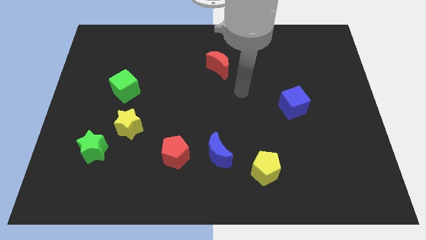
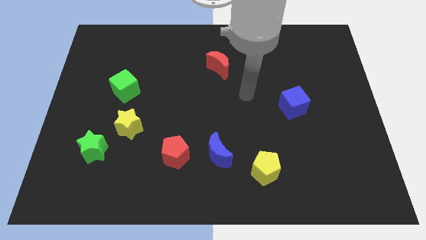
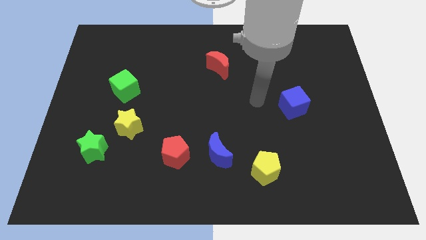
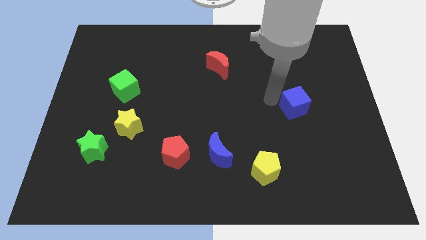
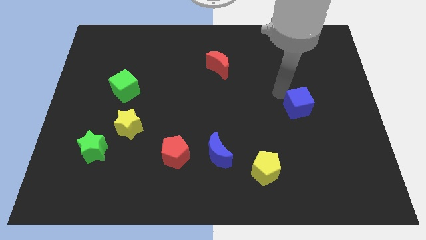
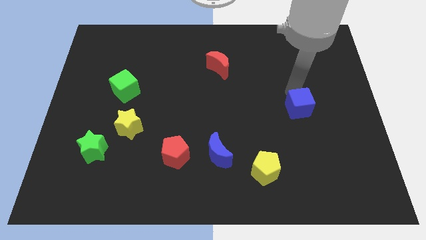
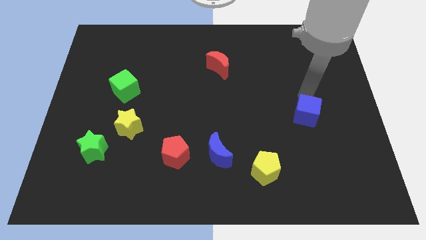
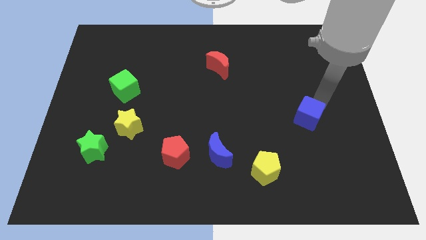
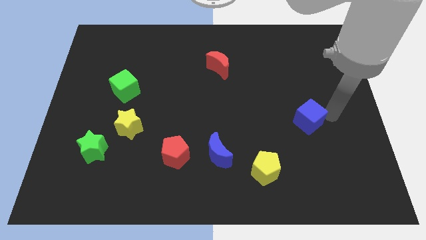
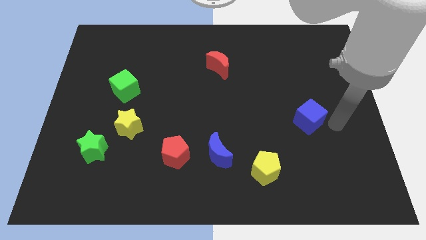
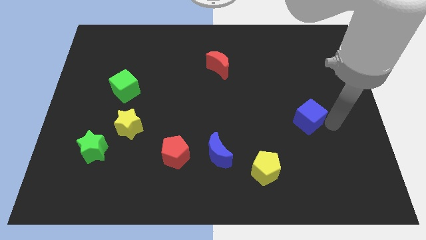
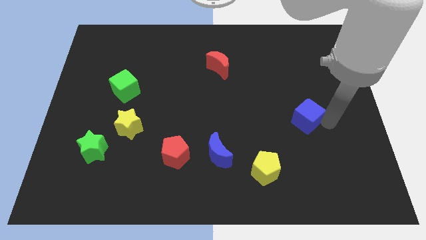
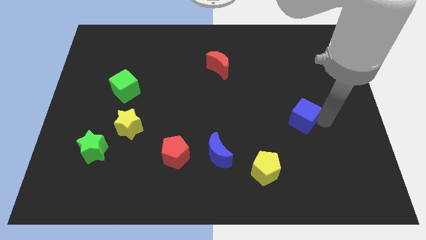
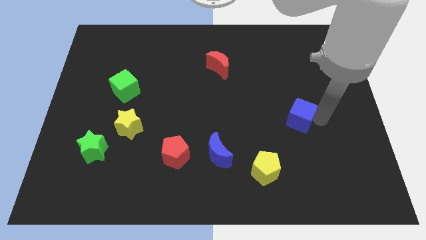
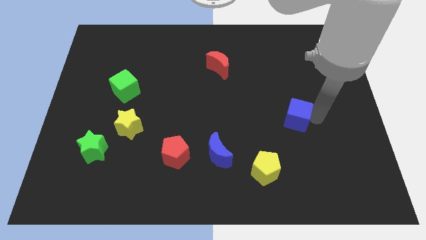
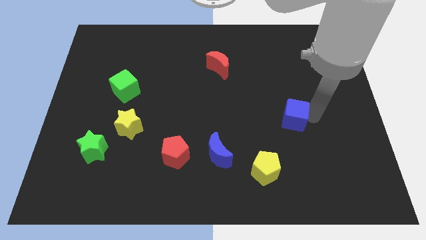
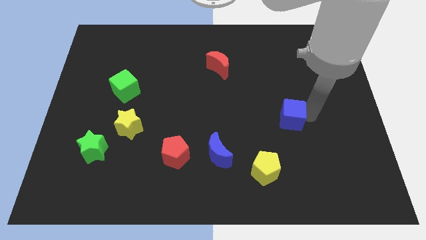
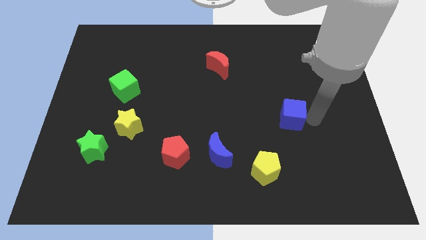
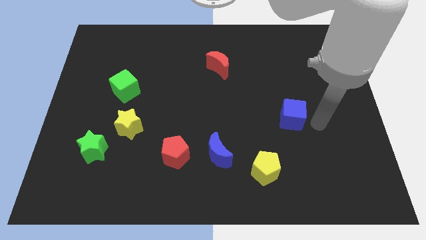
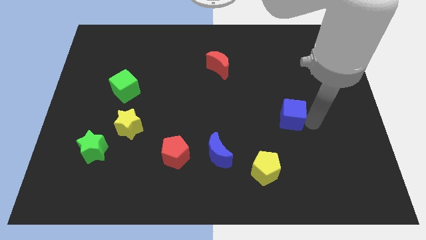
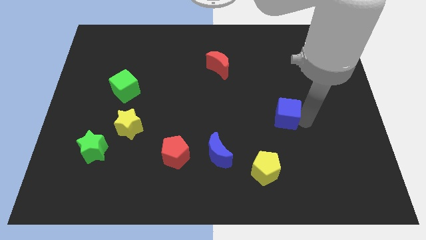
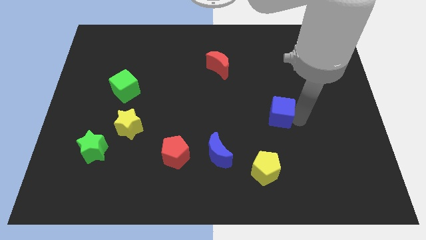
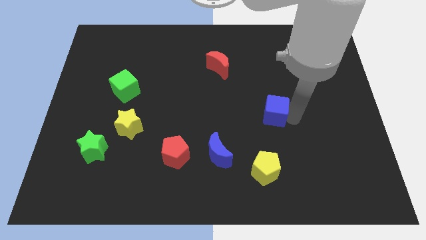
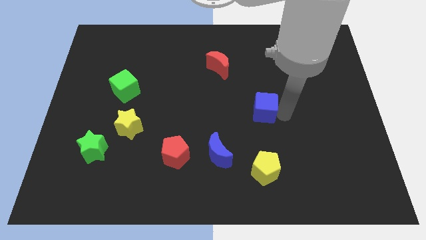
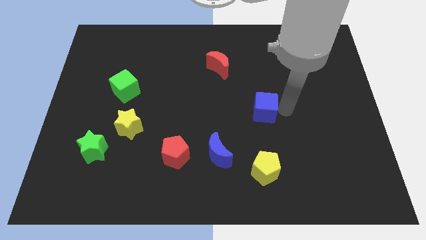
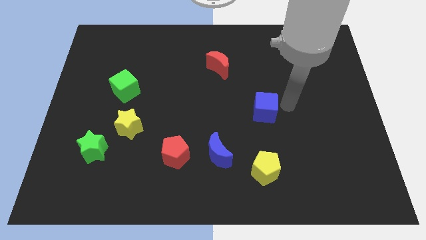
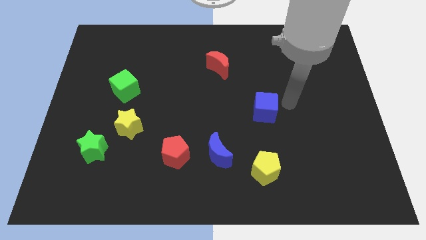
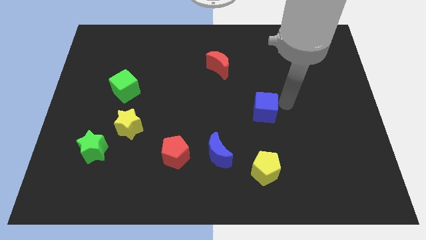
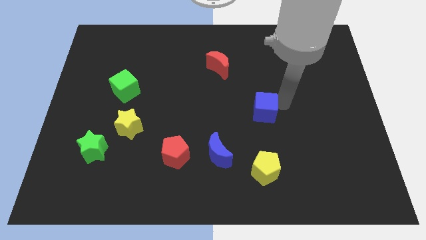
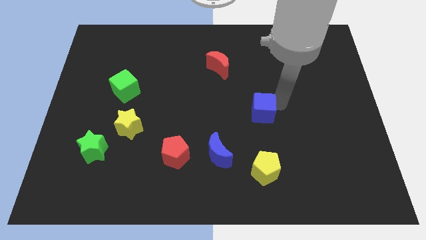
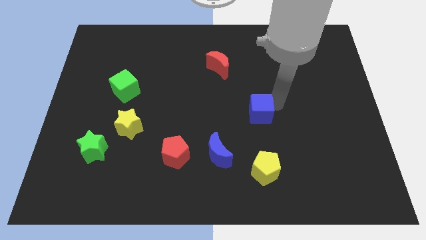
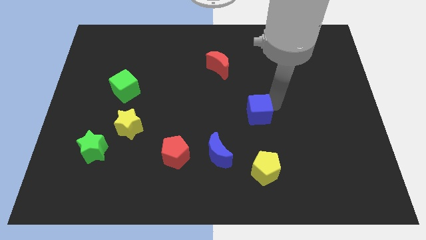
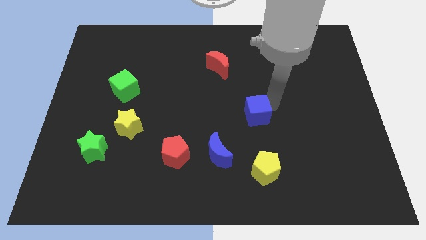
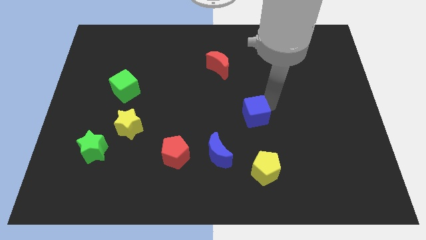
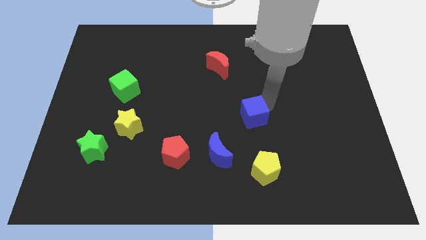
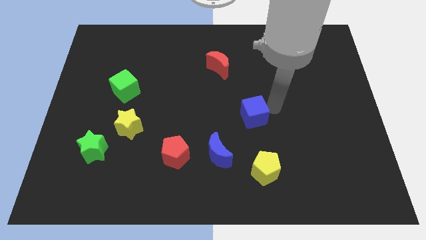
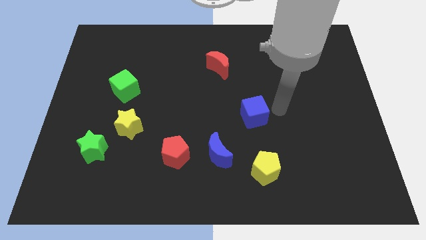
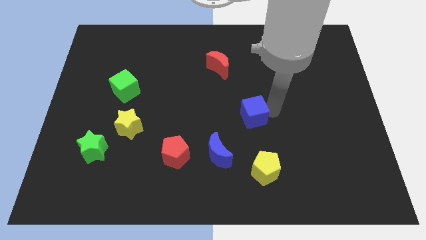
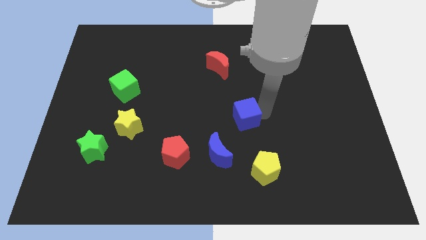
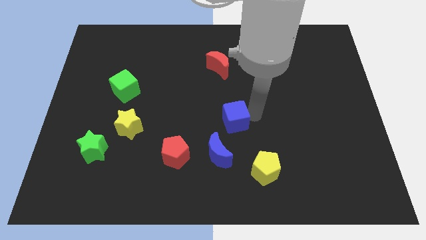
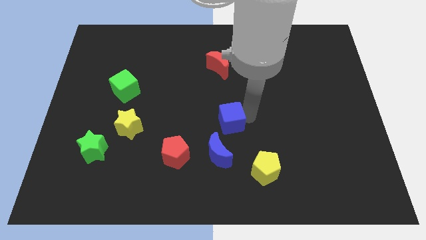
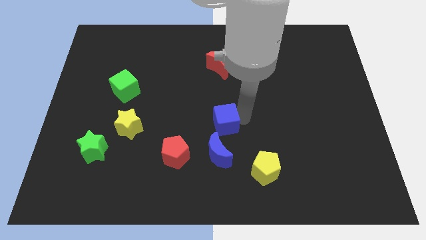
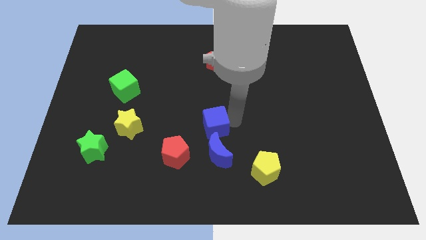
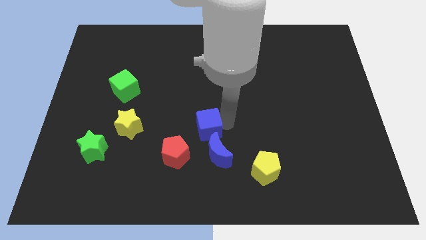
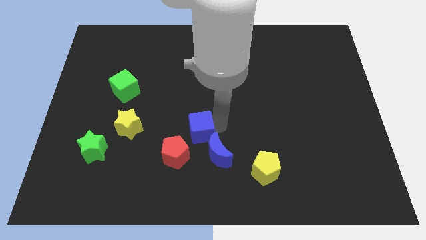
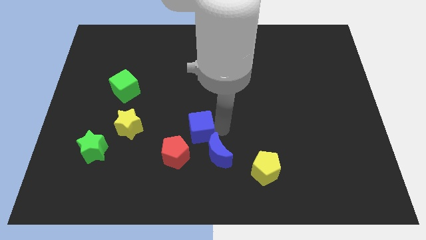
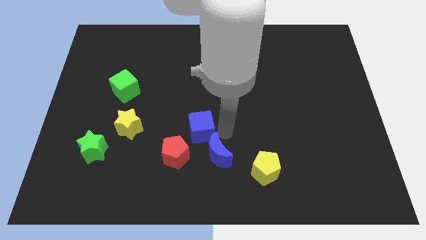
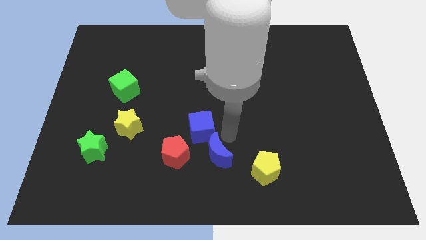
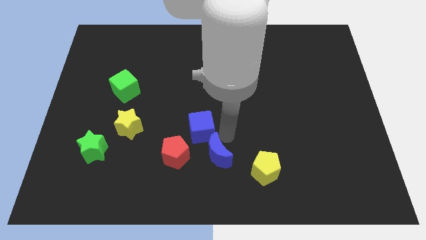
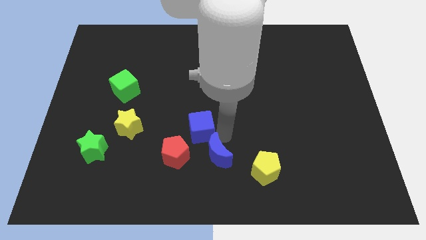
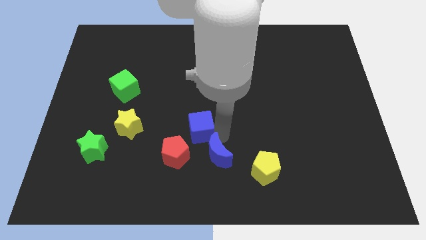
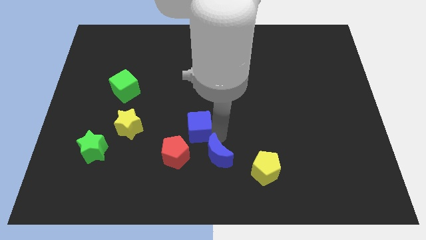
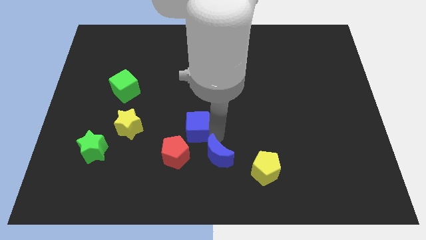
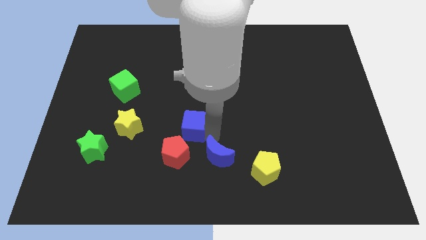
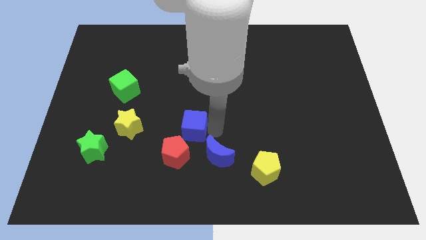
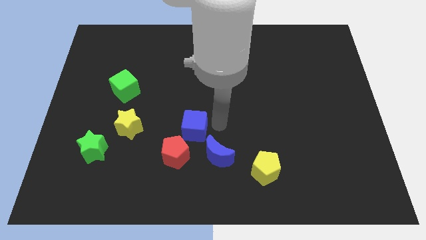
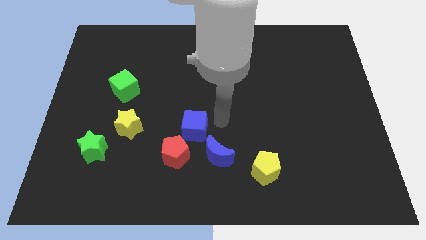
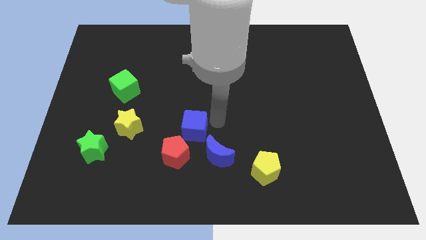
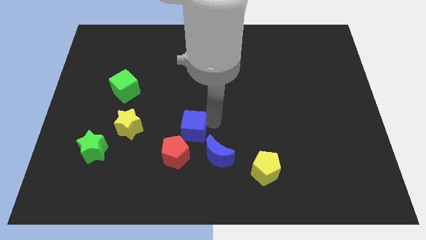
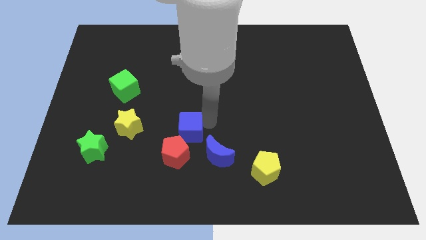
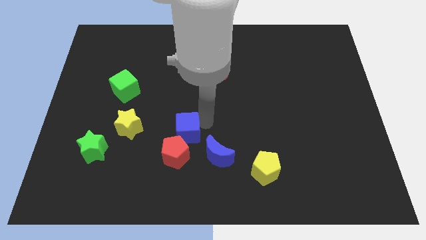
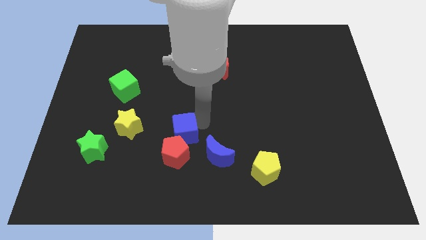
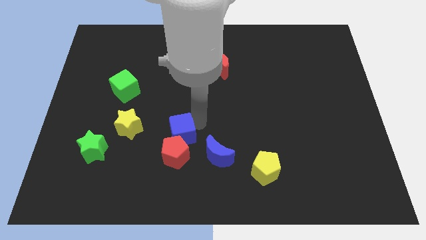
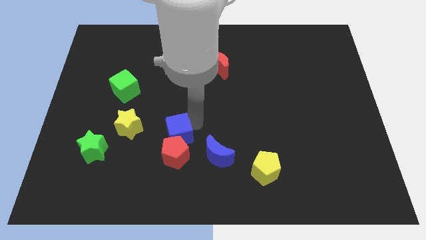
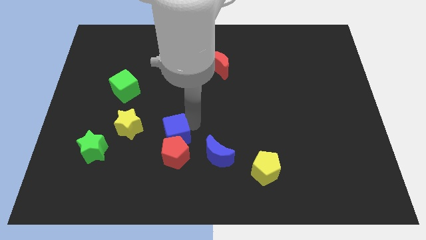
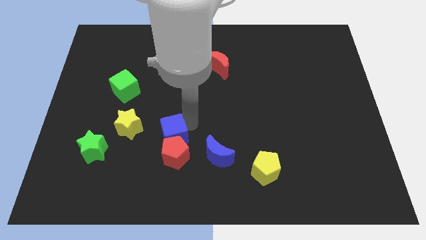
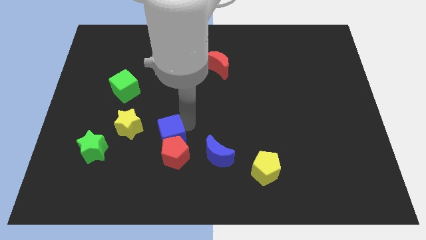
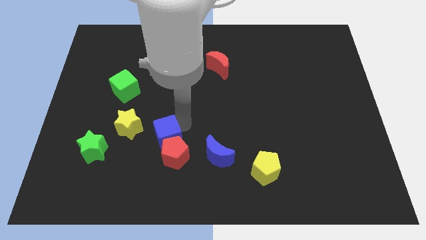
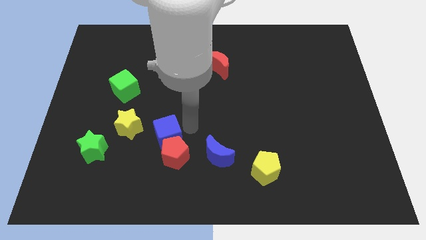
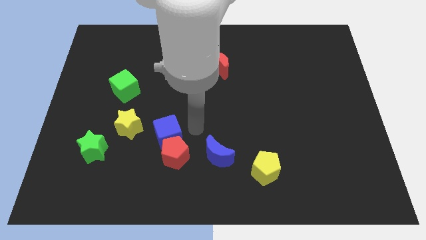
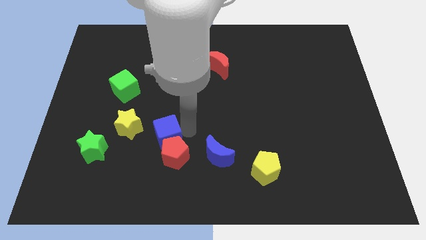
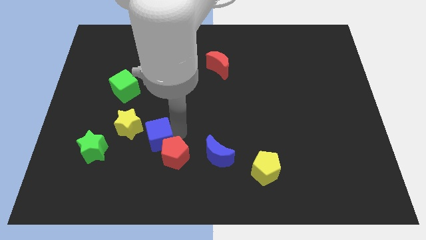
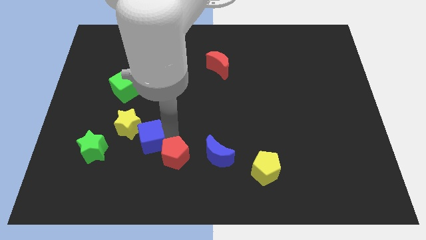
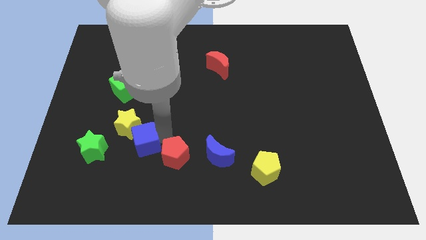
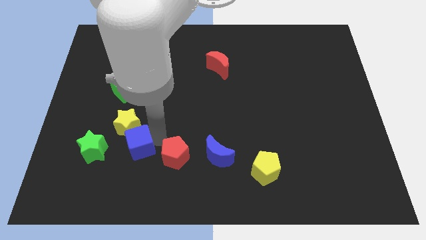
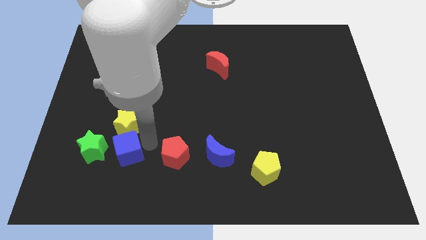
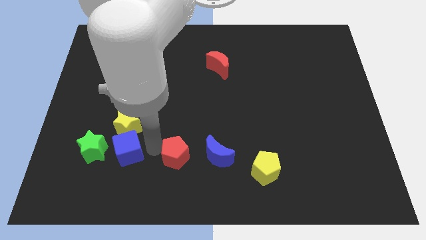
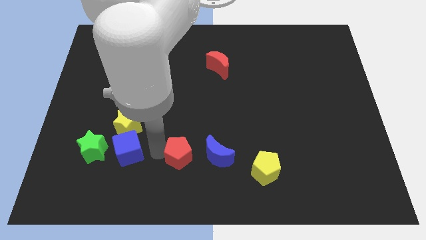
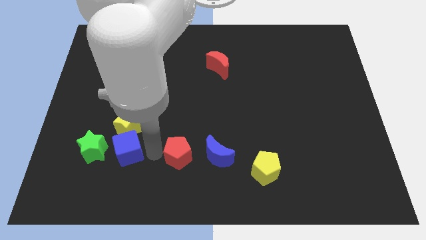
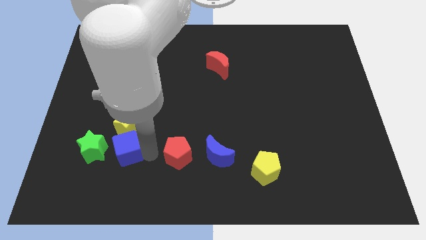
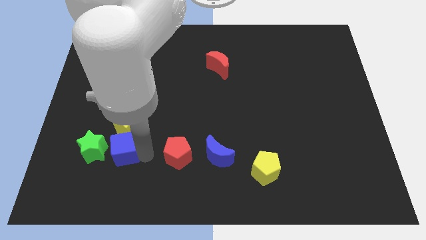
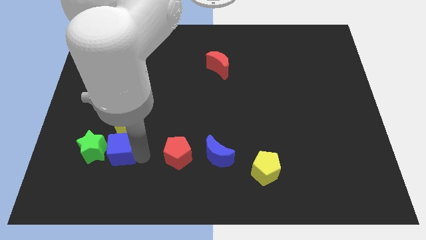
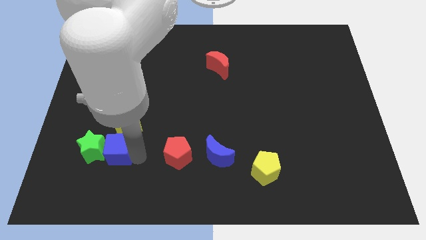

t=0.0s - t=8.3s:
push the blue cube towards the green star

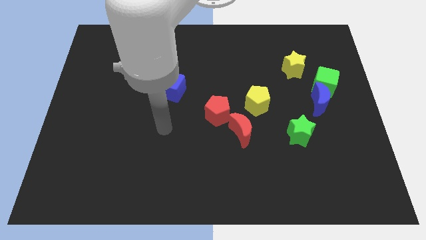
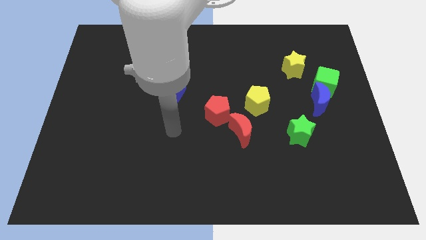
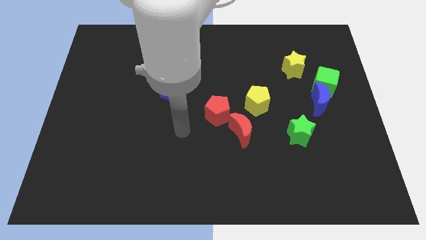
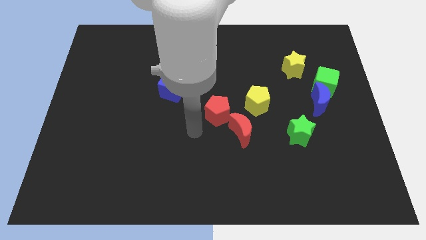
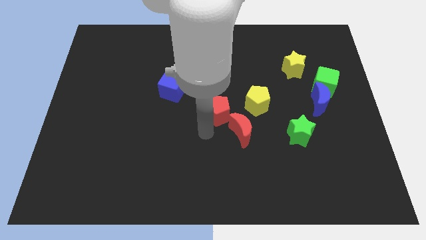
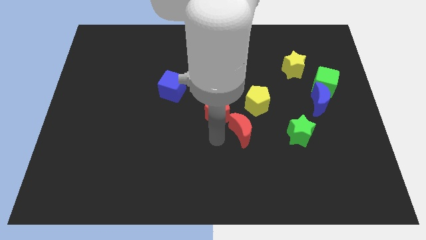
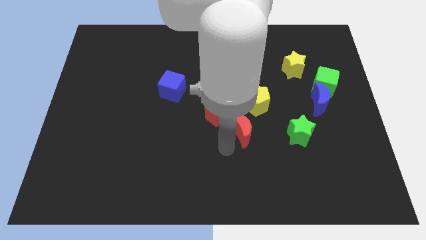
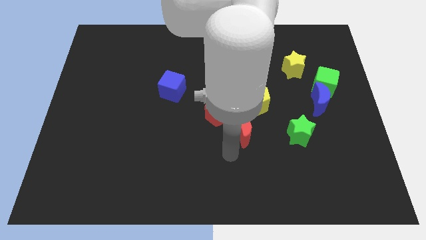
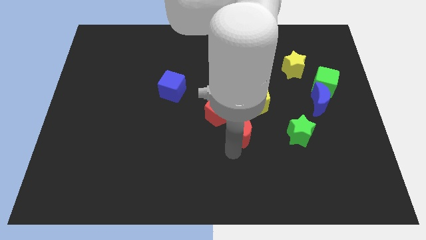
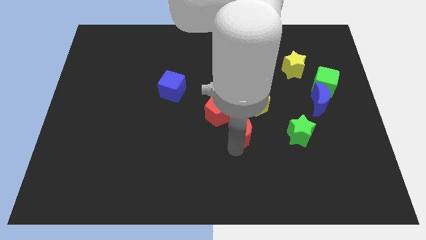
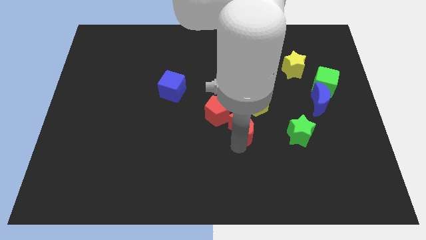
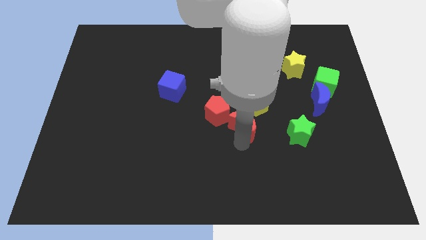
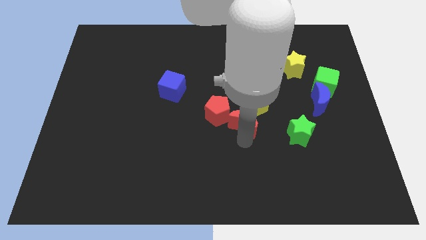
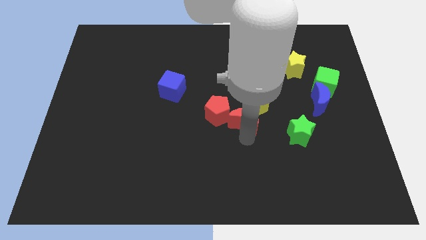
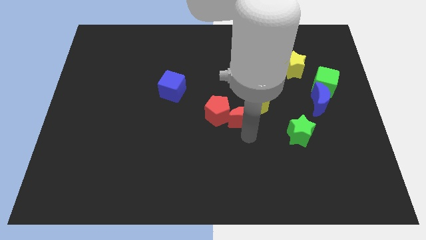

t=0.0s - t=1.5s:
slide the red moon towards the yellow pentagon
